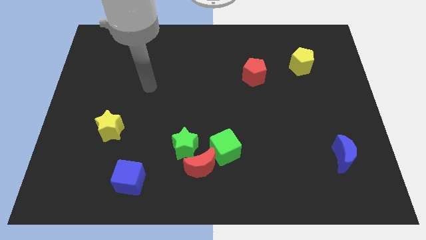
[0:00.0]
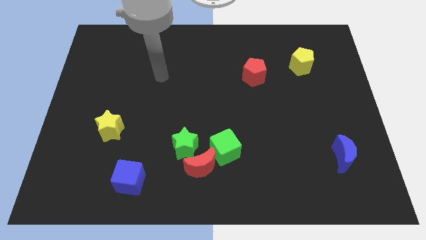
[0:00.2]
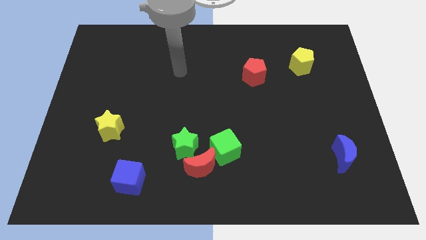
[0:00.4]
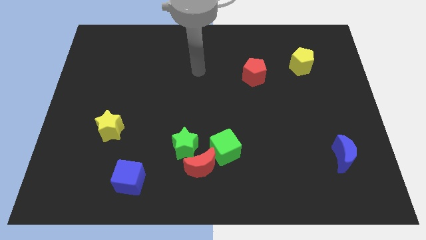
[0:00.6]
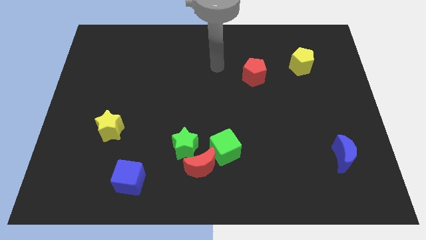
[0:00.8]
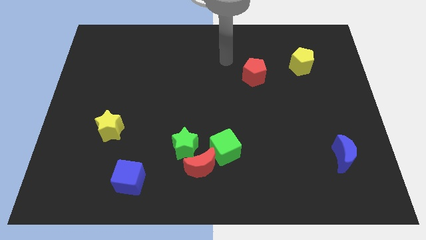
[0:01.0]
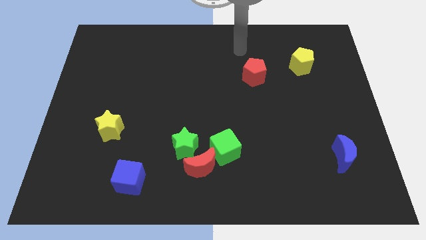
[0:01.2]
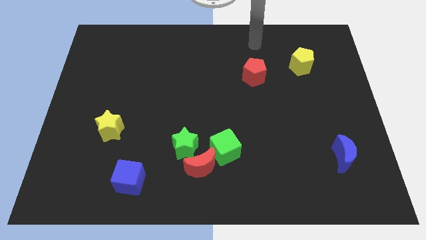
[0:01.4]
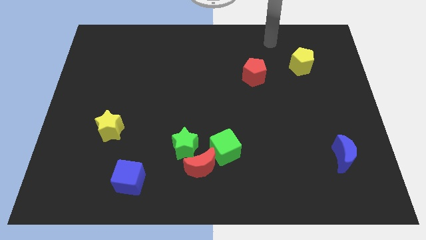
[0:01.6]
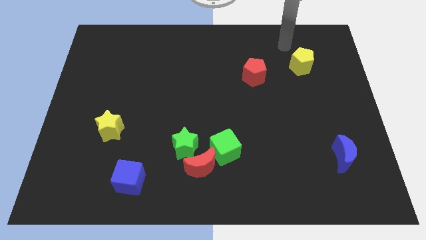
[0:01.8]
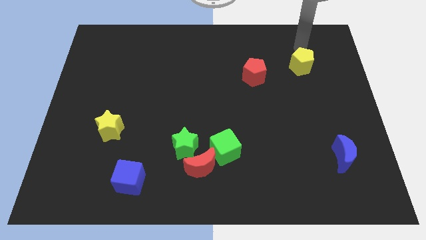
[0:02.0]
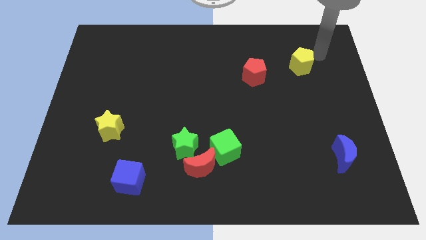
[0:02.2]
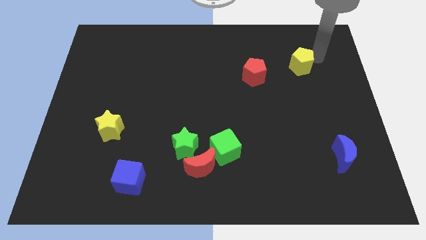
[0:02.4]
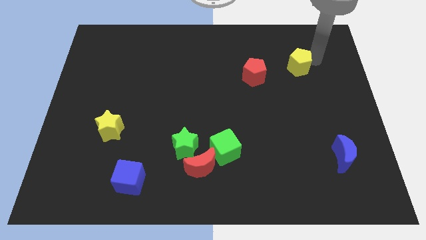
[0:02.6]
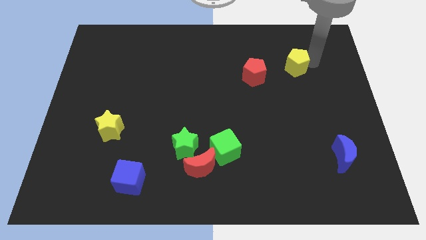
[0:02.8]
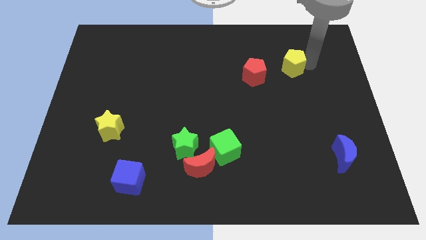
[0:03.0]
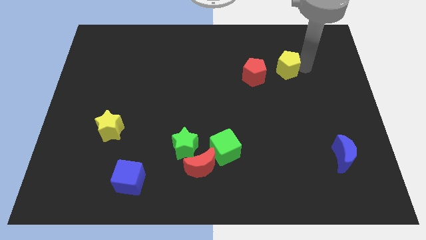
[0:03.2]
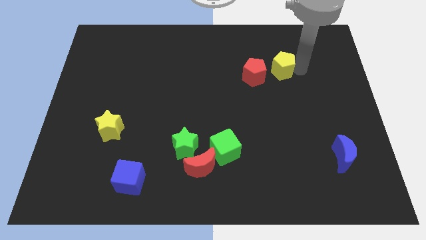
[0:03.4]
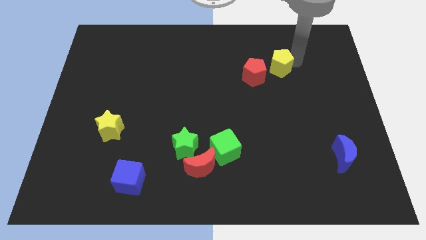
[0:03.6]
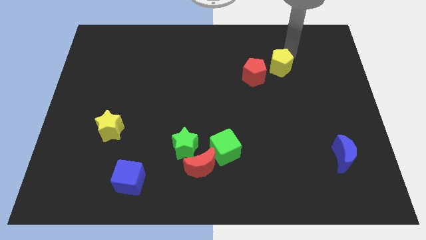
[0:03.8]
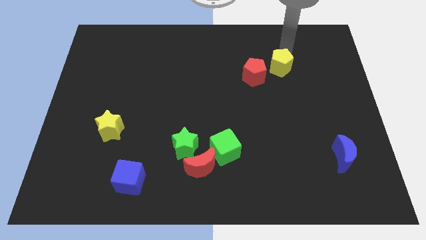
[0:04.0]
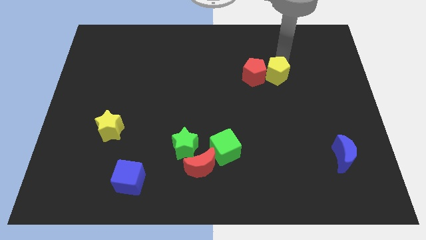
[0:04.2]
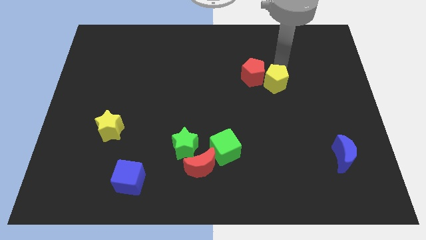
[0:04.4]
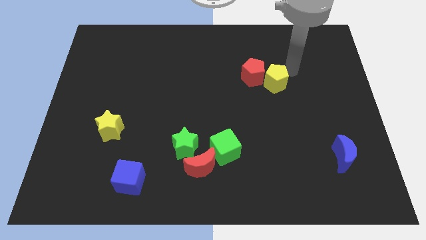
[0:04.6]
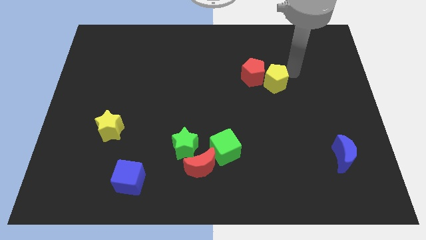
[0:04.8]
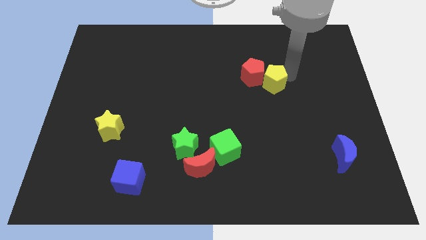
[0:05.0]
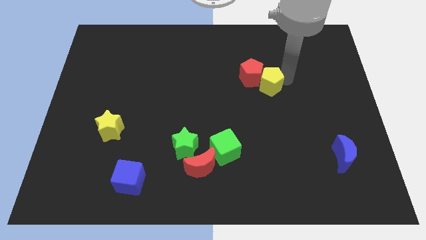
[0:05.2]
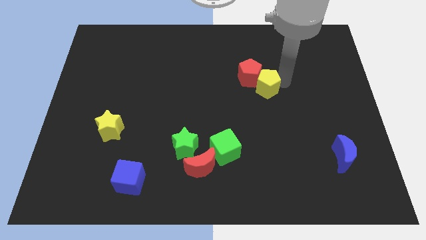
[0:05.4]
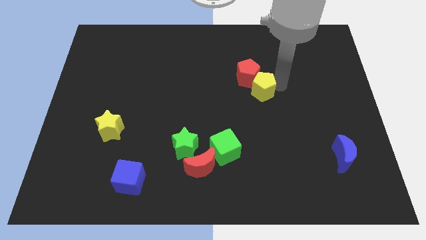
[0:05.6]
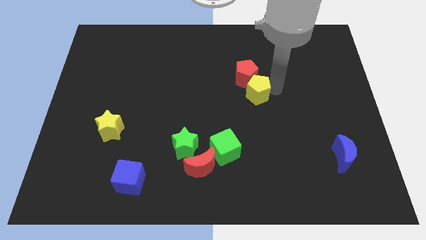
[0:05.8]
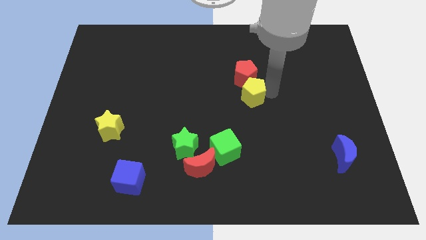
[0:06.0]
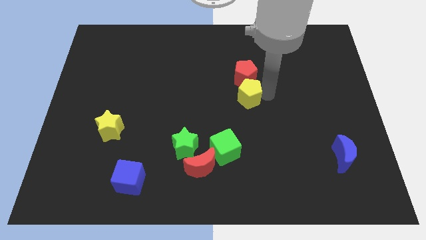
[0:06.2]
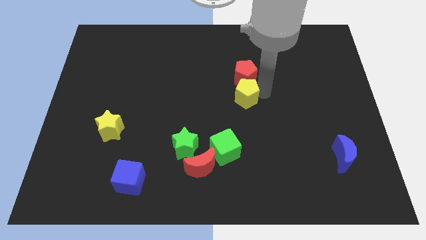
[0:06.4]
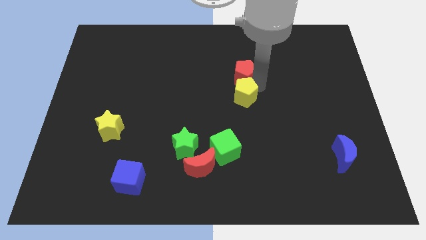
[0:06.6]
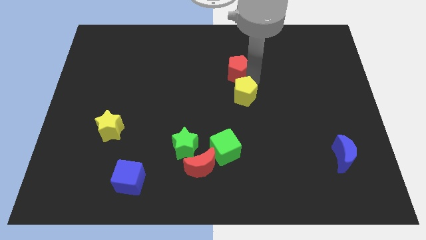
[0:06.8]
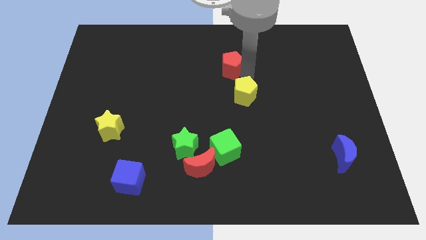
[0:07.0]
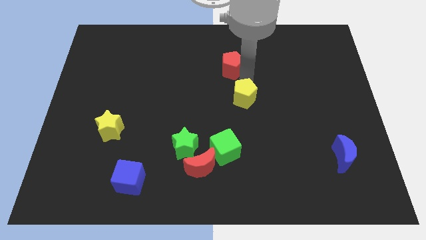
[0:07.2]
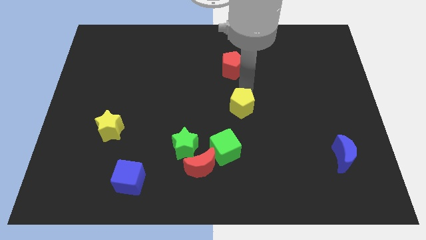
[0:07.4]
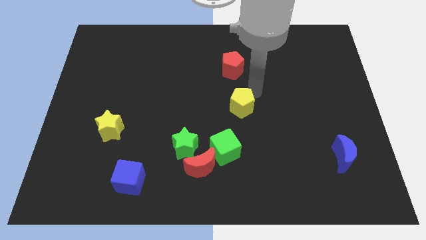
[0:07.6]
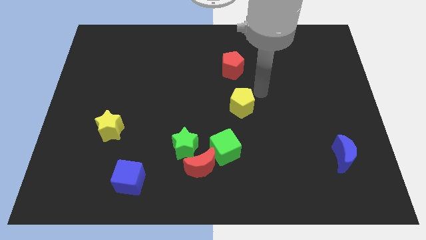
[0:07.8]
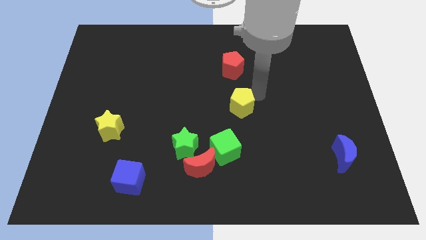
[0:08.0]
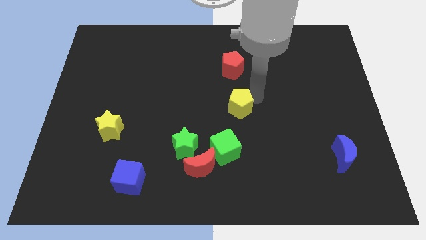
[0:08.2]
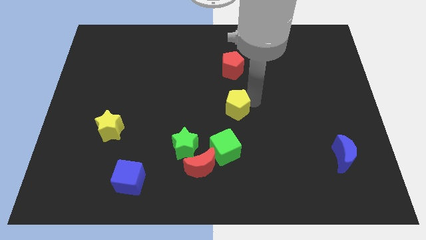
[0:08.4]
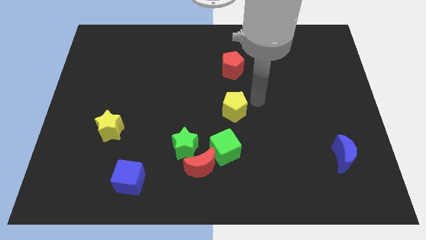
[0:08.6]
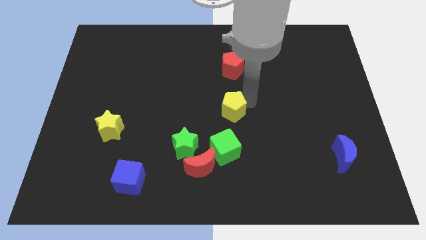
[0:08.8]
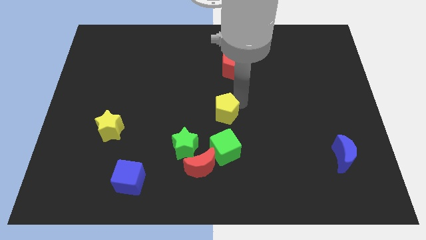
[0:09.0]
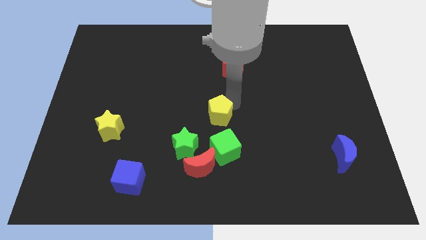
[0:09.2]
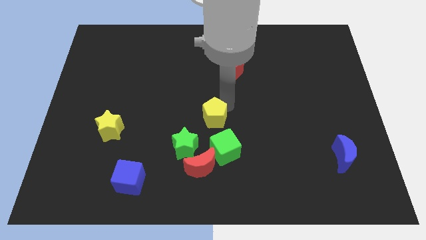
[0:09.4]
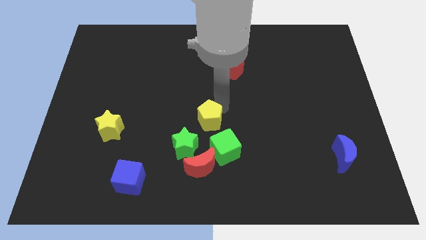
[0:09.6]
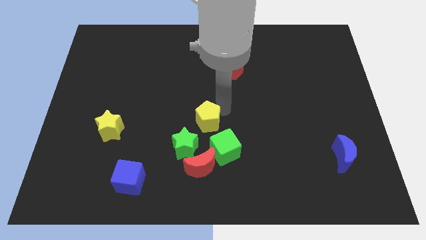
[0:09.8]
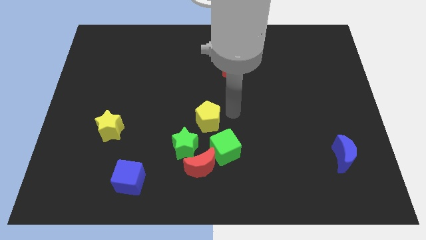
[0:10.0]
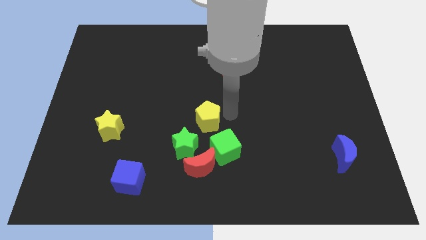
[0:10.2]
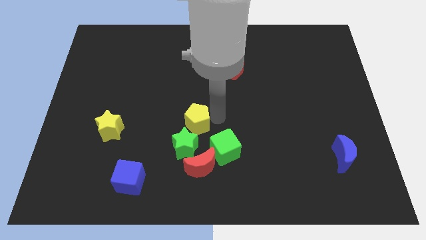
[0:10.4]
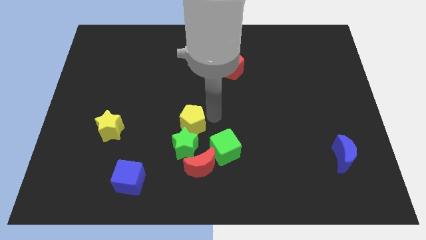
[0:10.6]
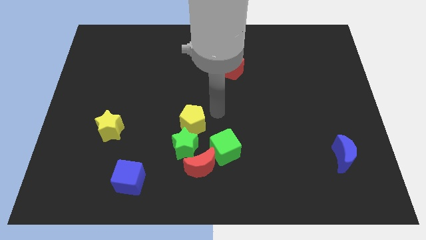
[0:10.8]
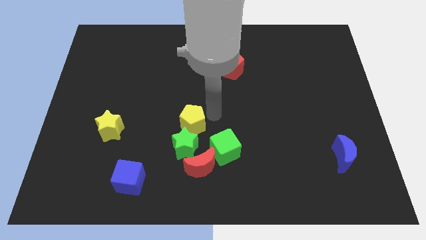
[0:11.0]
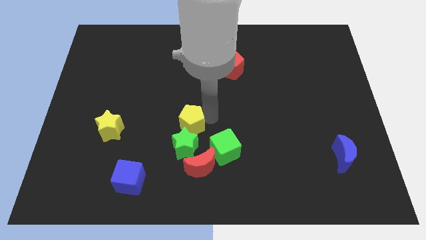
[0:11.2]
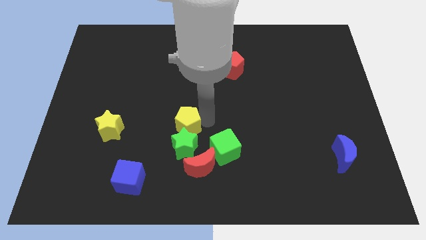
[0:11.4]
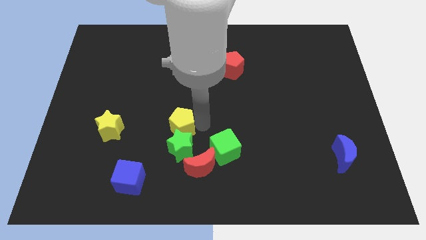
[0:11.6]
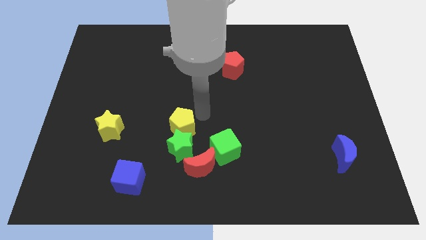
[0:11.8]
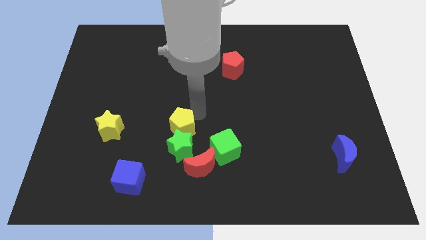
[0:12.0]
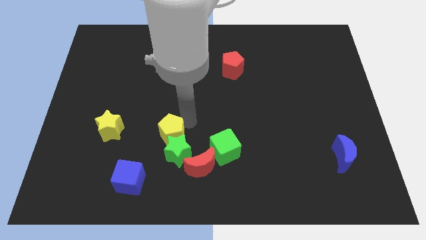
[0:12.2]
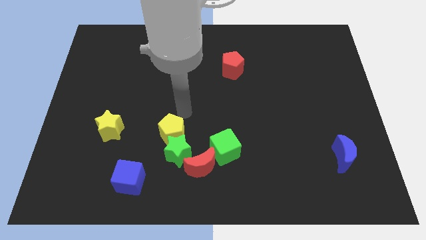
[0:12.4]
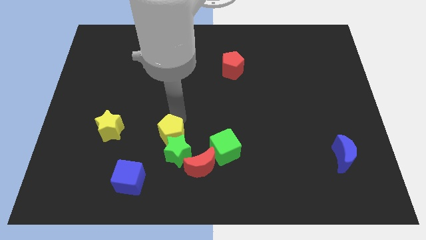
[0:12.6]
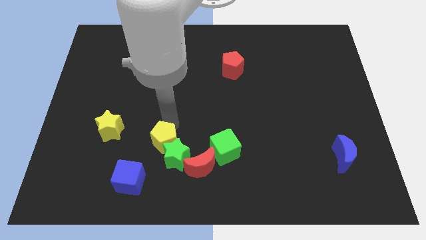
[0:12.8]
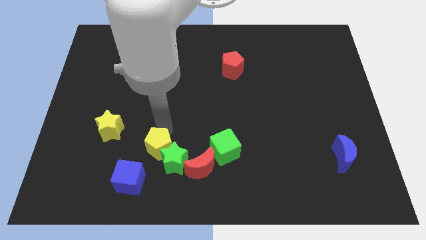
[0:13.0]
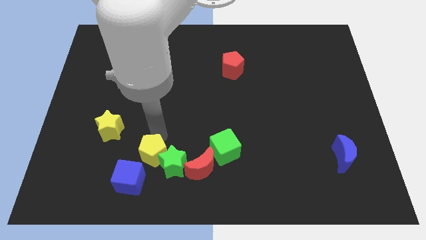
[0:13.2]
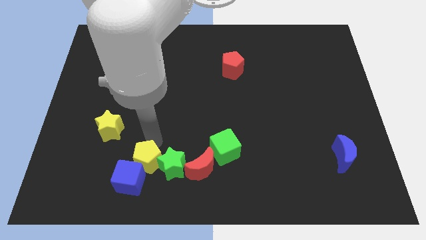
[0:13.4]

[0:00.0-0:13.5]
move the yellow pentagon to the bottom left side of the green star

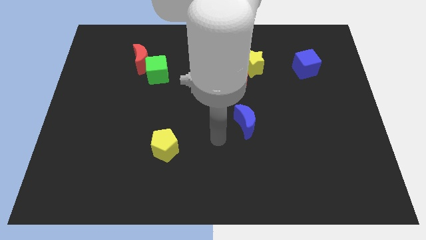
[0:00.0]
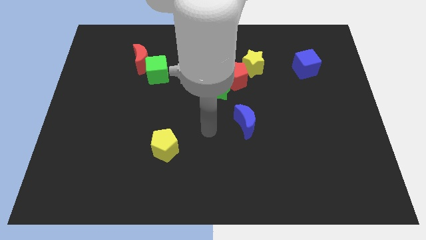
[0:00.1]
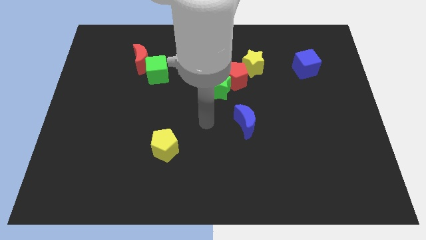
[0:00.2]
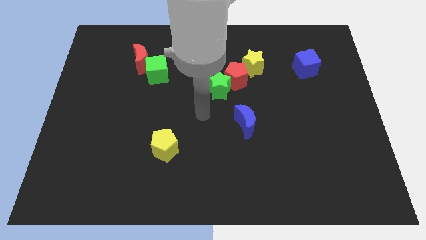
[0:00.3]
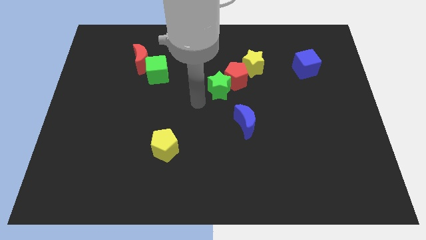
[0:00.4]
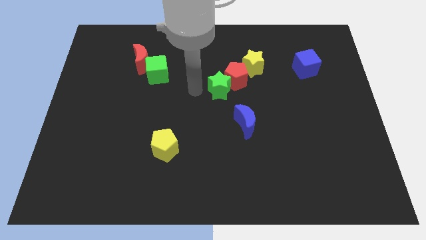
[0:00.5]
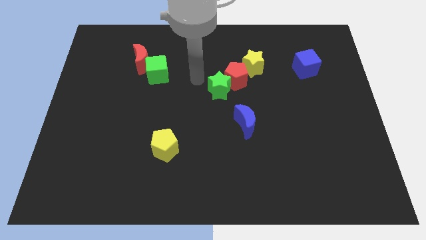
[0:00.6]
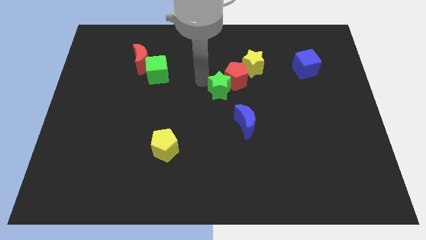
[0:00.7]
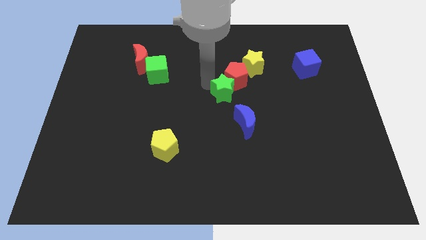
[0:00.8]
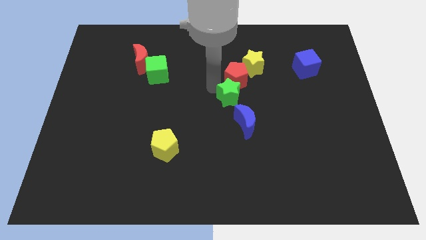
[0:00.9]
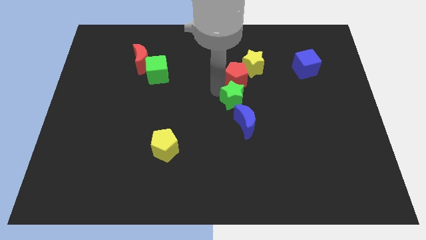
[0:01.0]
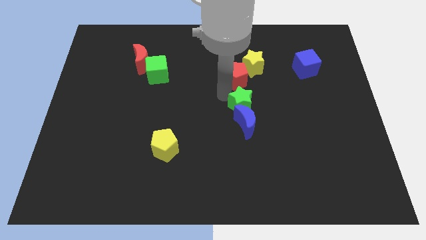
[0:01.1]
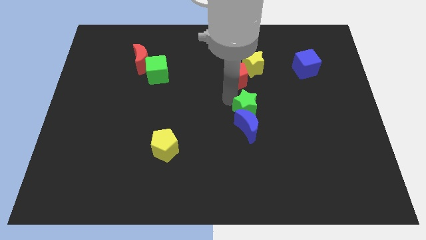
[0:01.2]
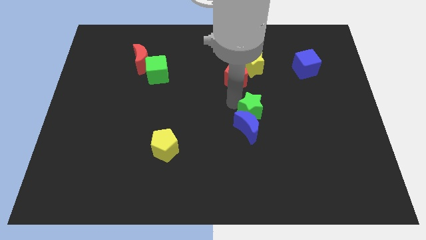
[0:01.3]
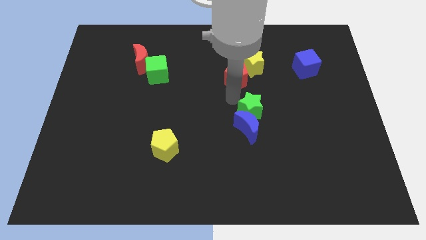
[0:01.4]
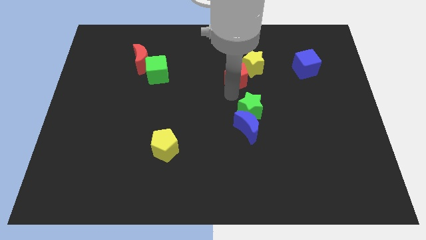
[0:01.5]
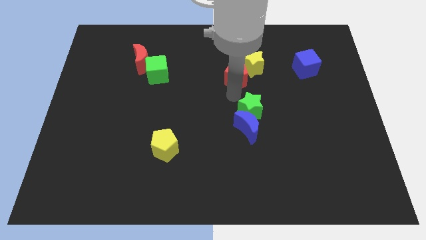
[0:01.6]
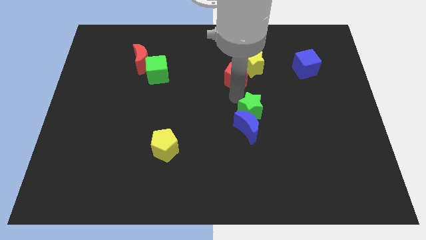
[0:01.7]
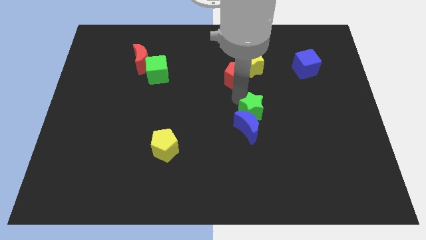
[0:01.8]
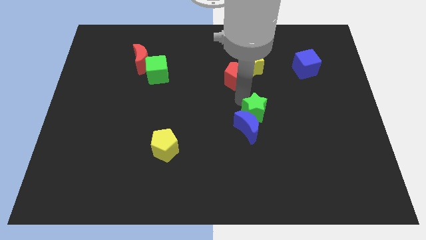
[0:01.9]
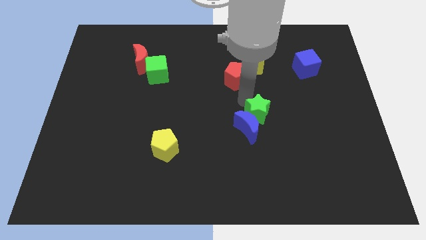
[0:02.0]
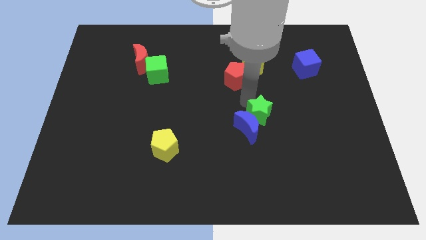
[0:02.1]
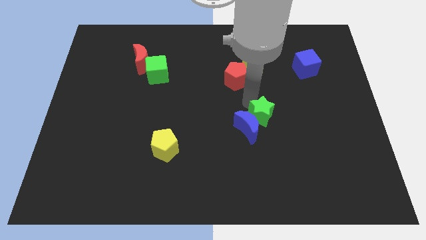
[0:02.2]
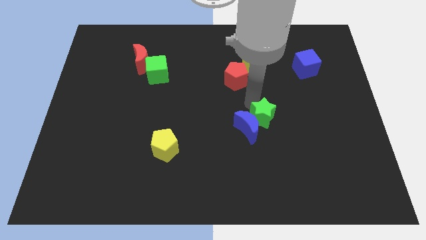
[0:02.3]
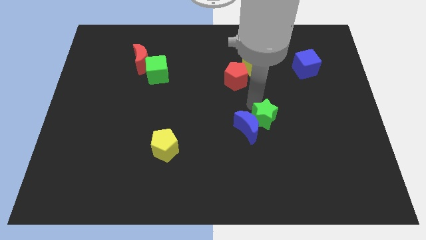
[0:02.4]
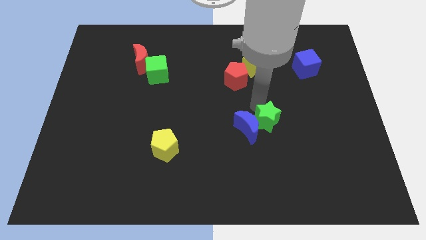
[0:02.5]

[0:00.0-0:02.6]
move the green star diagonally down and to the right of the blue moon
